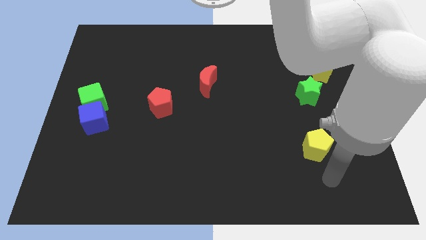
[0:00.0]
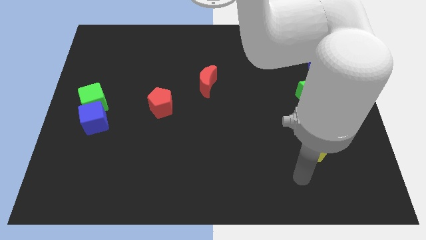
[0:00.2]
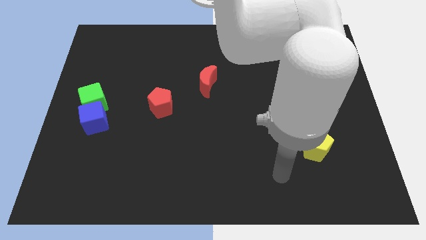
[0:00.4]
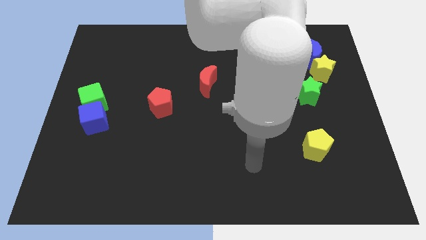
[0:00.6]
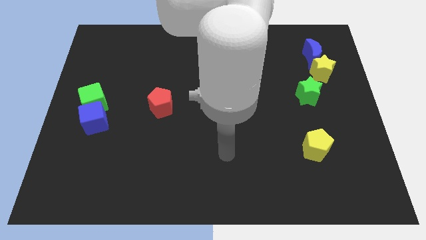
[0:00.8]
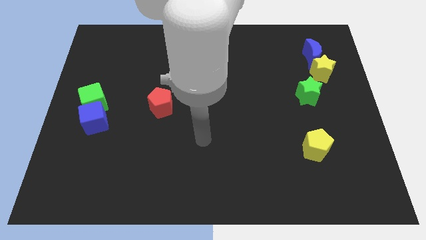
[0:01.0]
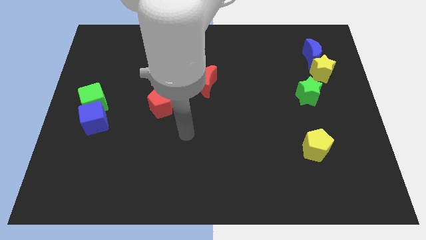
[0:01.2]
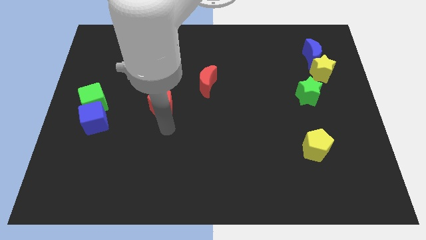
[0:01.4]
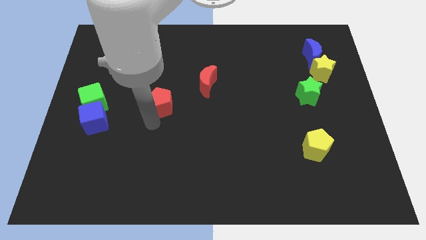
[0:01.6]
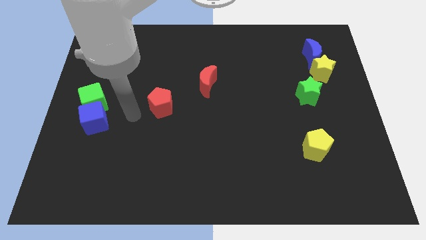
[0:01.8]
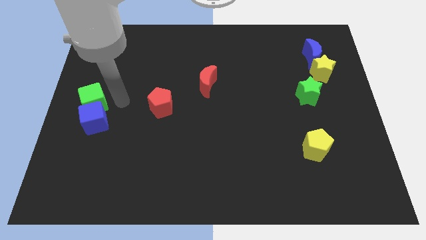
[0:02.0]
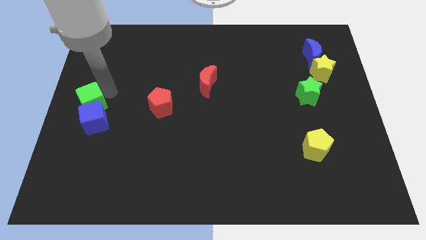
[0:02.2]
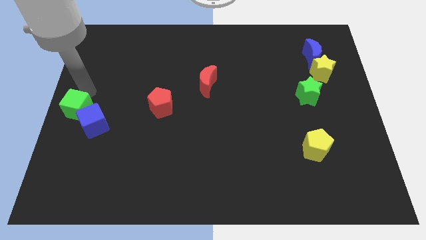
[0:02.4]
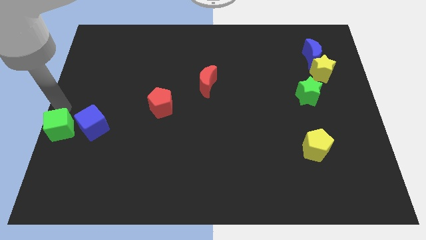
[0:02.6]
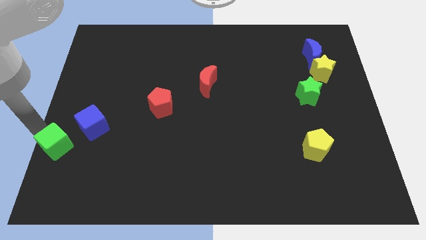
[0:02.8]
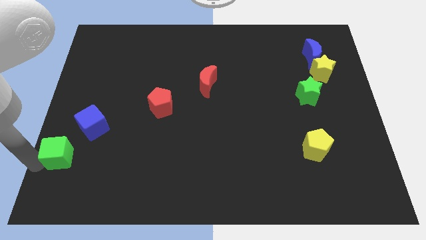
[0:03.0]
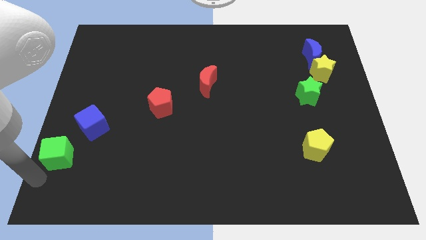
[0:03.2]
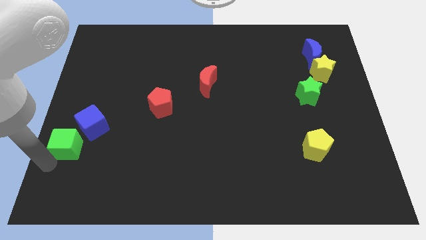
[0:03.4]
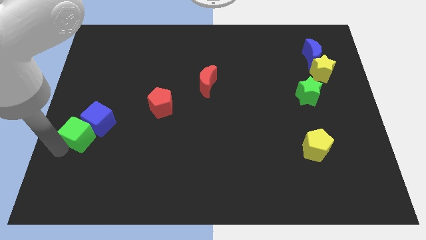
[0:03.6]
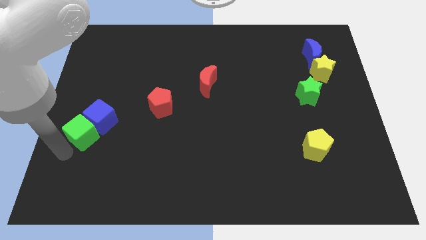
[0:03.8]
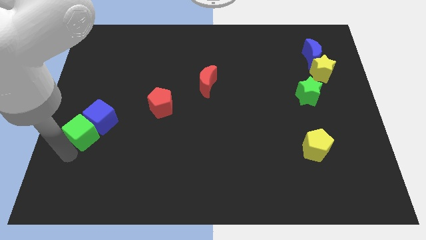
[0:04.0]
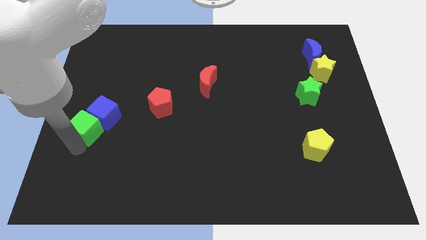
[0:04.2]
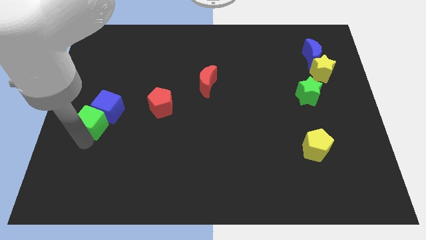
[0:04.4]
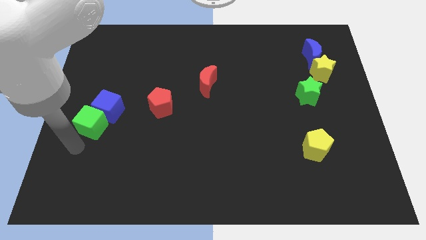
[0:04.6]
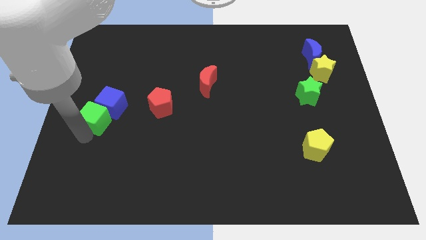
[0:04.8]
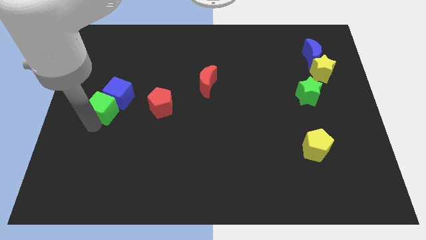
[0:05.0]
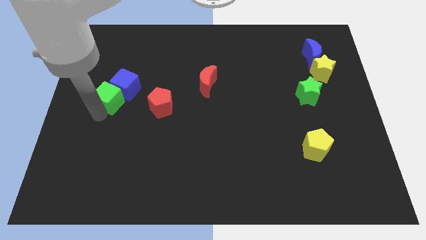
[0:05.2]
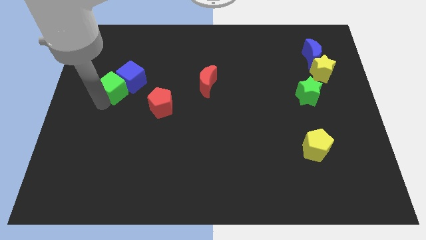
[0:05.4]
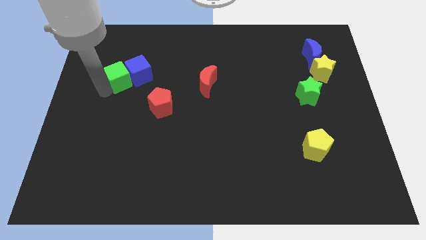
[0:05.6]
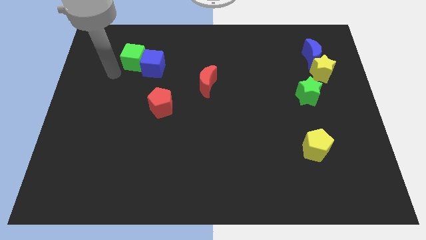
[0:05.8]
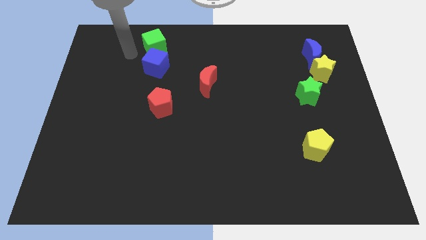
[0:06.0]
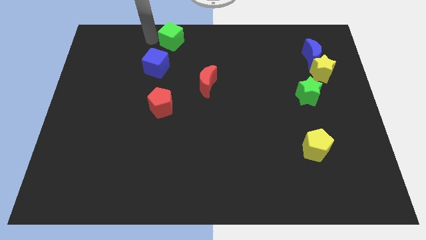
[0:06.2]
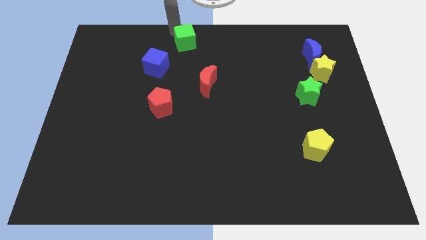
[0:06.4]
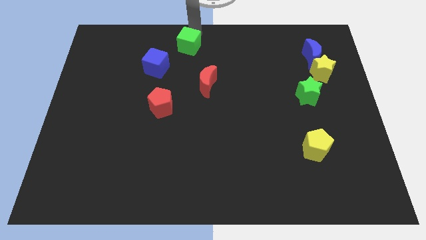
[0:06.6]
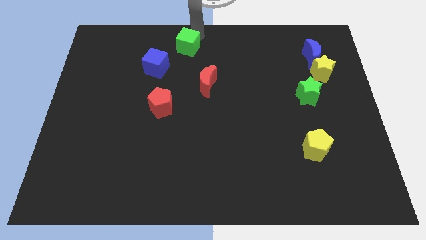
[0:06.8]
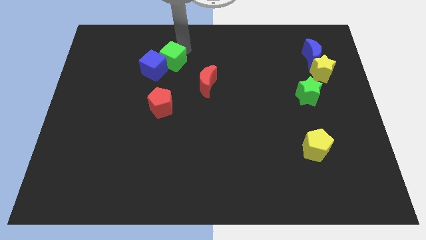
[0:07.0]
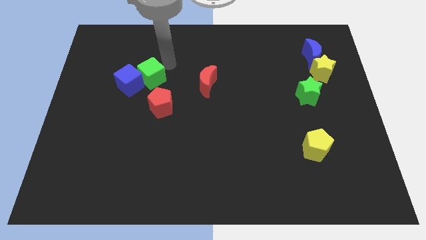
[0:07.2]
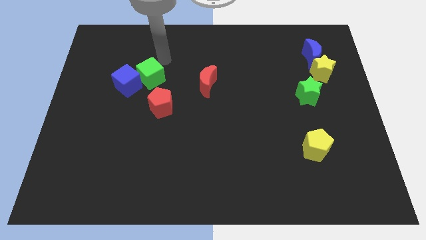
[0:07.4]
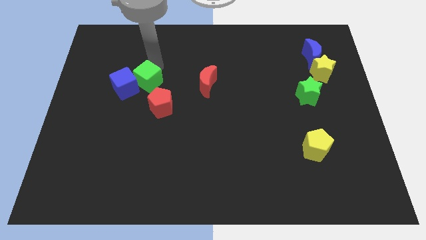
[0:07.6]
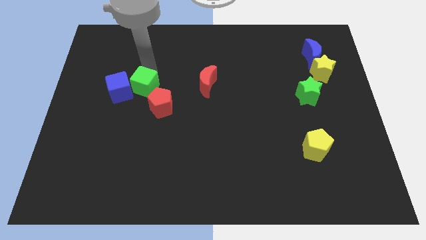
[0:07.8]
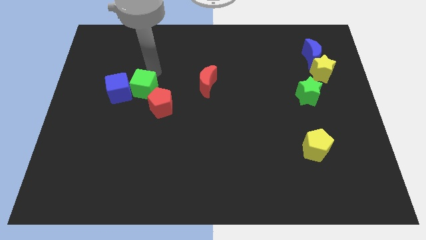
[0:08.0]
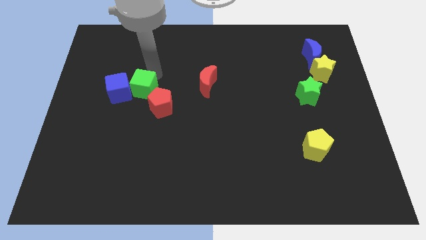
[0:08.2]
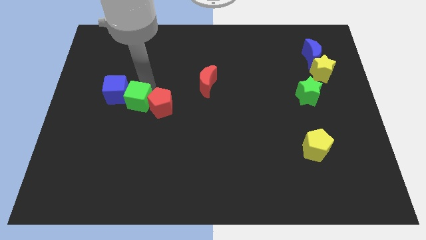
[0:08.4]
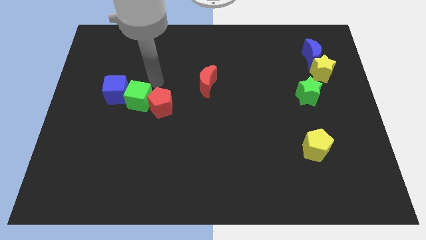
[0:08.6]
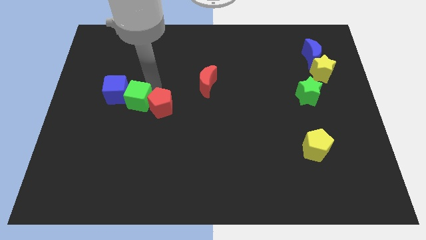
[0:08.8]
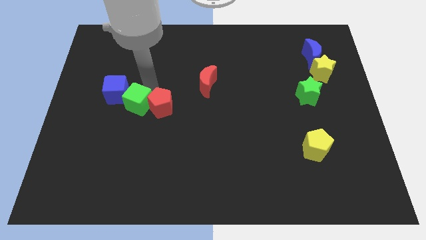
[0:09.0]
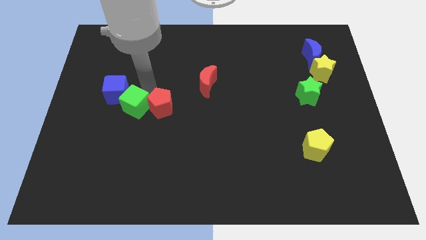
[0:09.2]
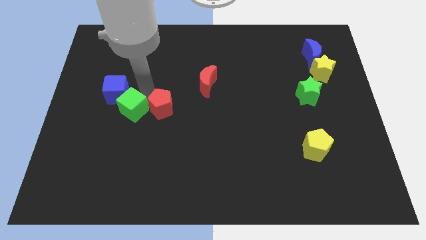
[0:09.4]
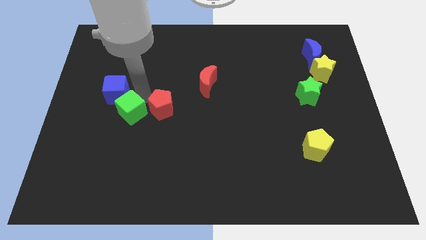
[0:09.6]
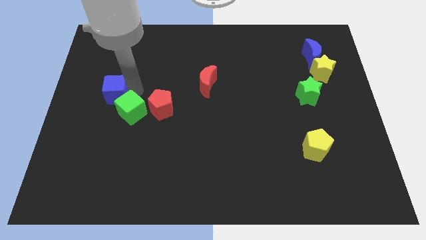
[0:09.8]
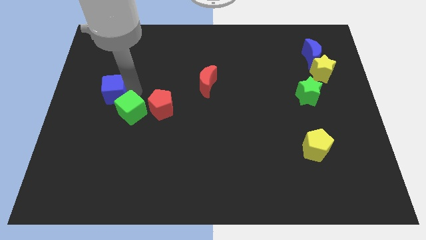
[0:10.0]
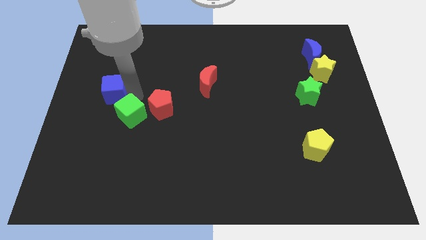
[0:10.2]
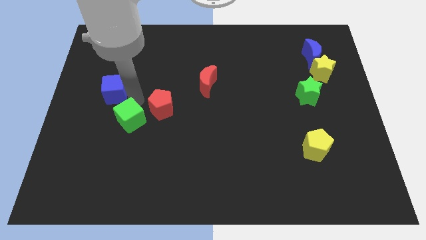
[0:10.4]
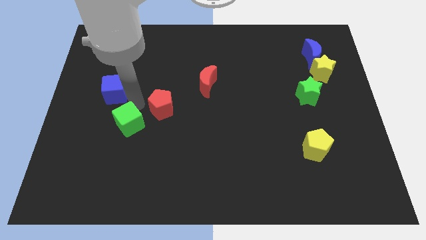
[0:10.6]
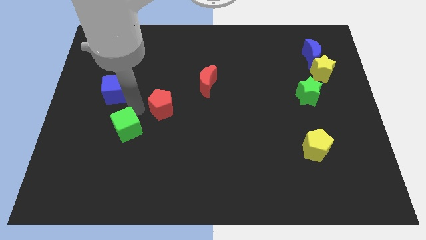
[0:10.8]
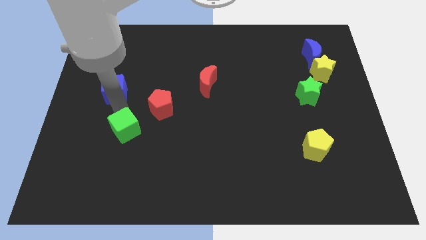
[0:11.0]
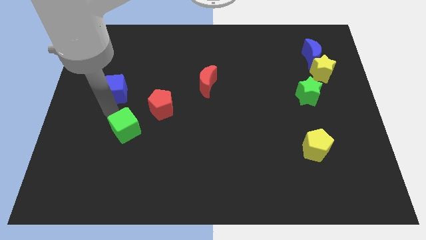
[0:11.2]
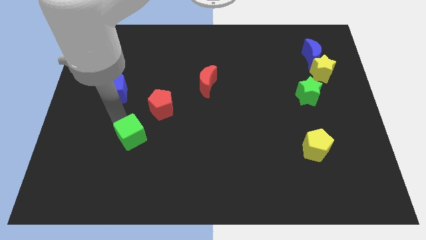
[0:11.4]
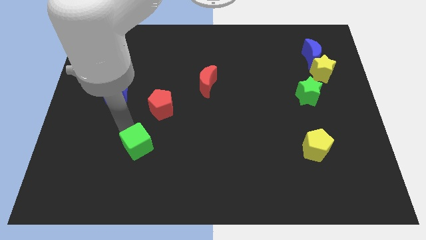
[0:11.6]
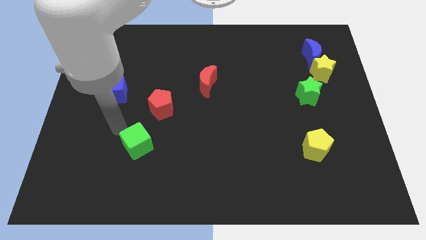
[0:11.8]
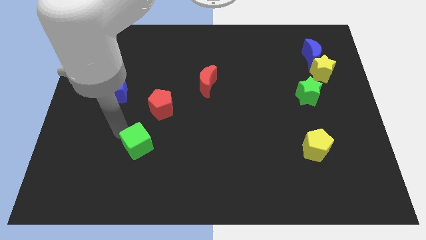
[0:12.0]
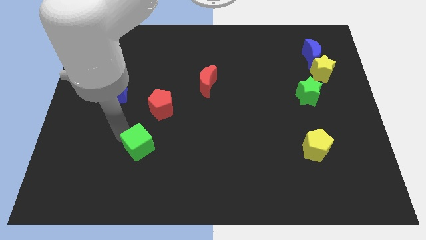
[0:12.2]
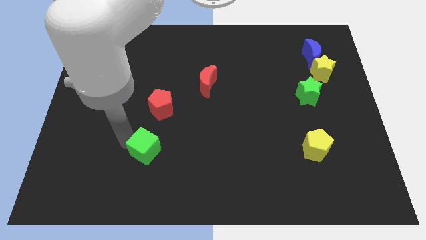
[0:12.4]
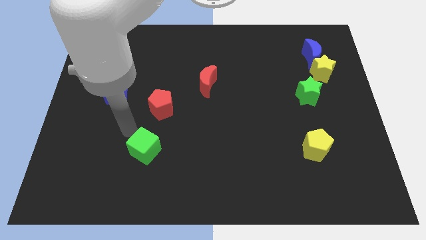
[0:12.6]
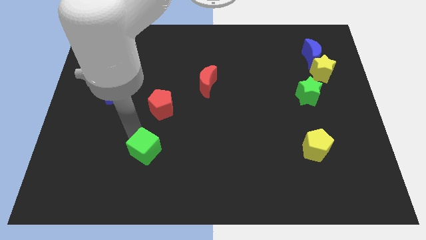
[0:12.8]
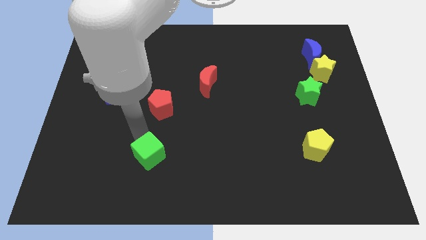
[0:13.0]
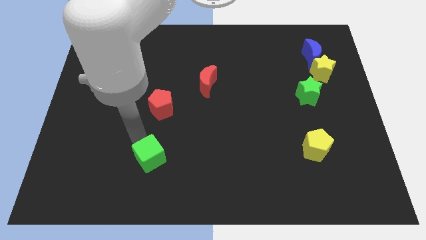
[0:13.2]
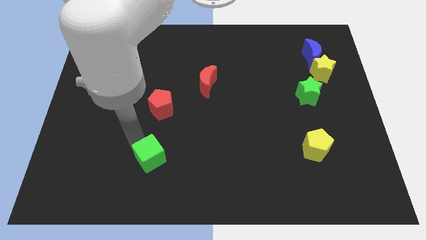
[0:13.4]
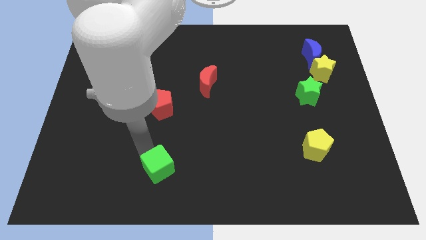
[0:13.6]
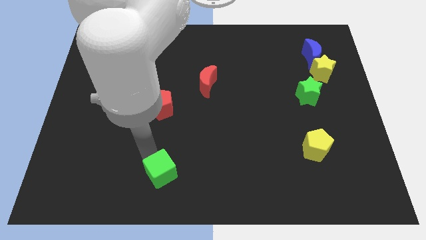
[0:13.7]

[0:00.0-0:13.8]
put the green cube to the bottom
